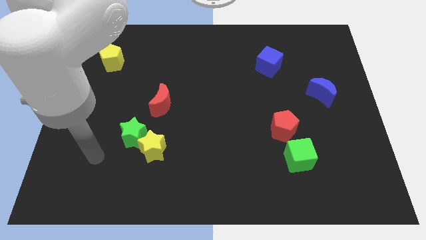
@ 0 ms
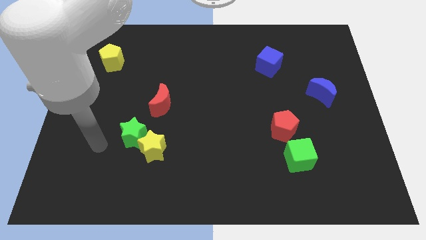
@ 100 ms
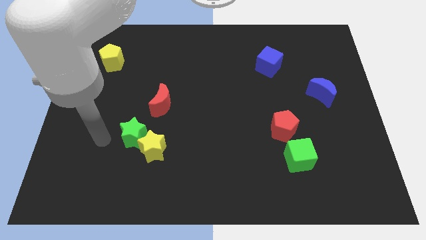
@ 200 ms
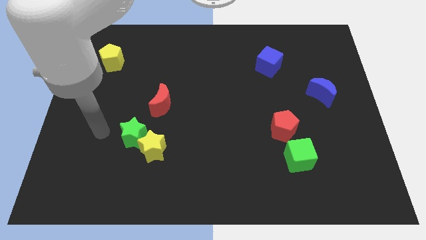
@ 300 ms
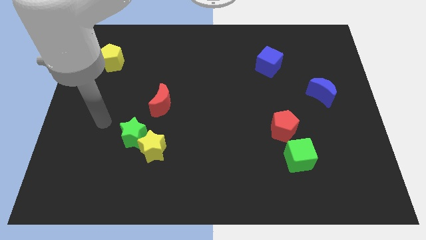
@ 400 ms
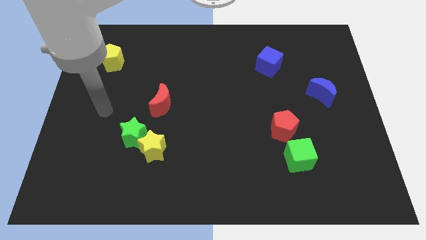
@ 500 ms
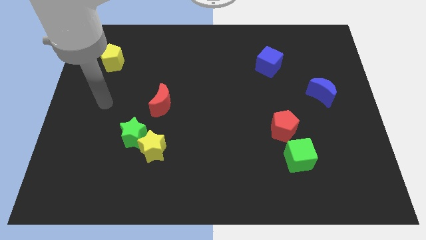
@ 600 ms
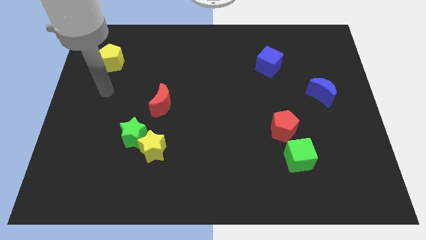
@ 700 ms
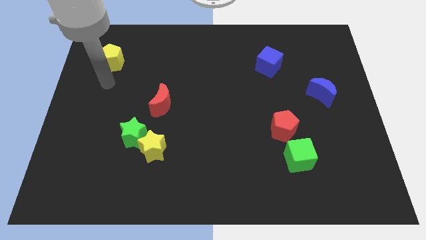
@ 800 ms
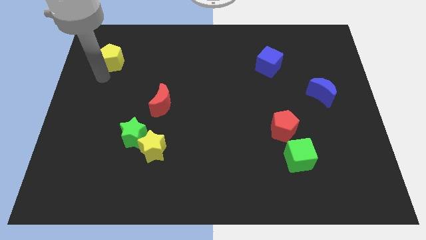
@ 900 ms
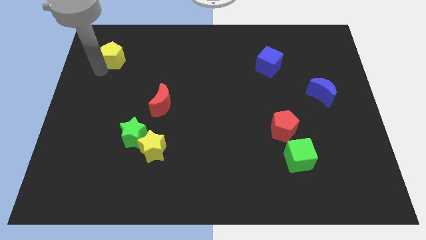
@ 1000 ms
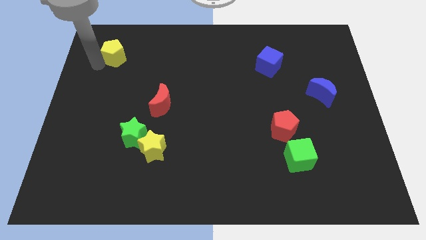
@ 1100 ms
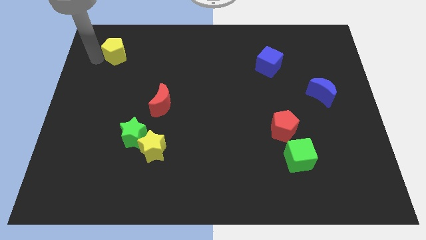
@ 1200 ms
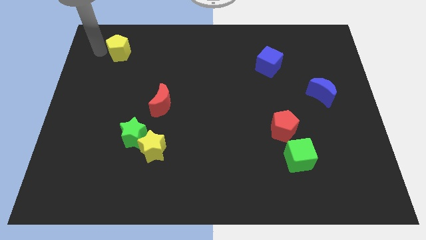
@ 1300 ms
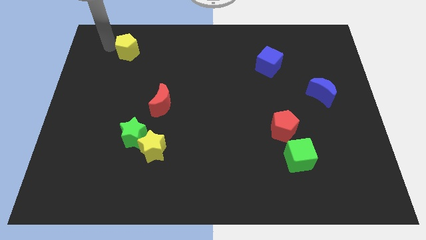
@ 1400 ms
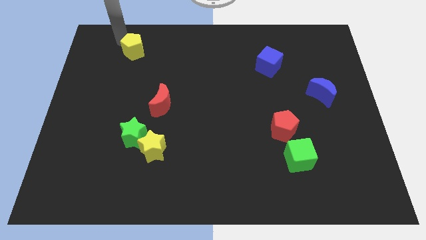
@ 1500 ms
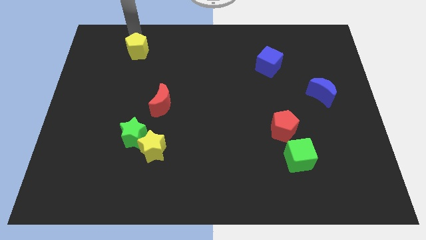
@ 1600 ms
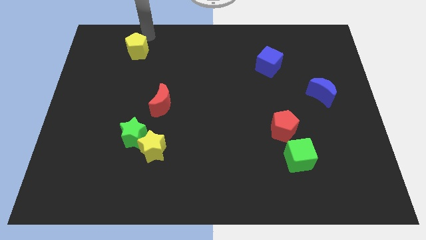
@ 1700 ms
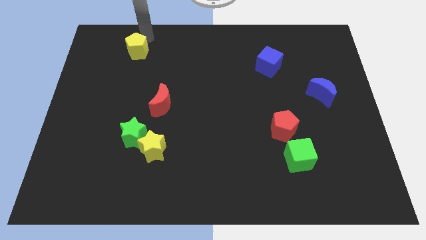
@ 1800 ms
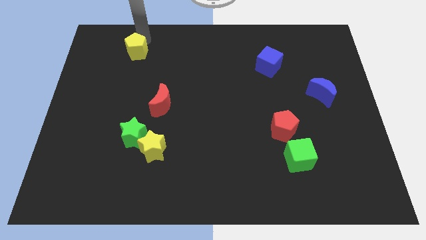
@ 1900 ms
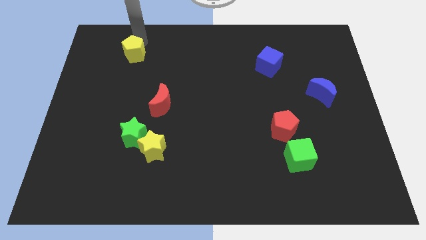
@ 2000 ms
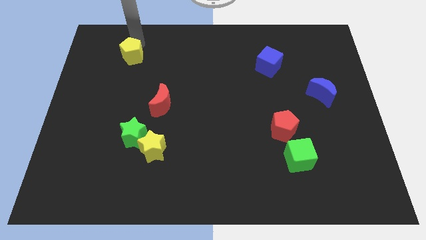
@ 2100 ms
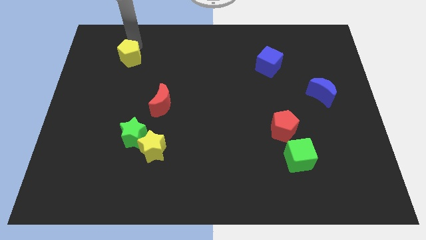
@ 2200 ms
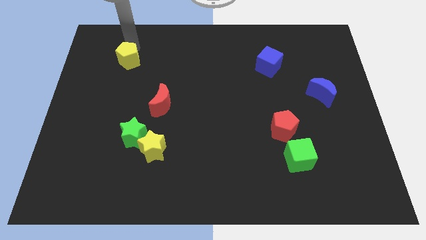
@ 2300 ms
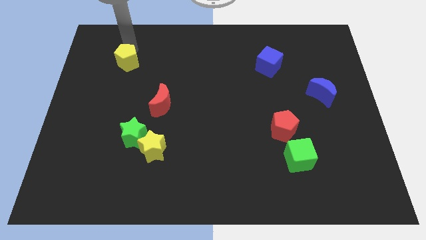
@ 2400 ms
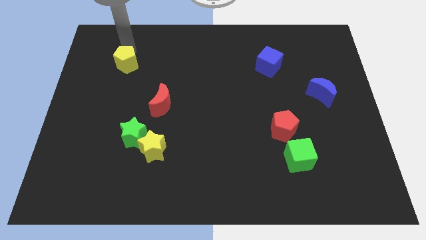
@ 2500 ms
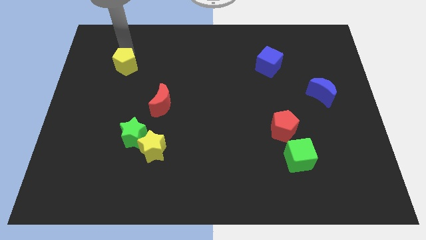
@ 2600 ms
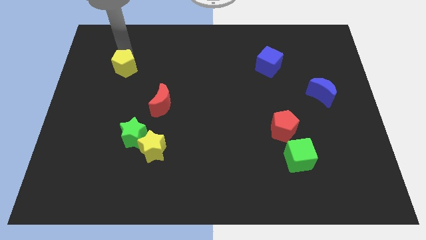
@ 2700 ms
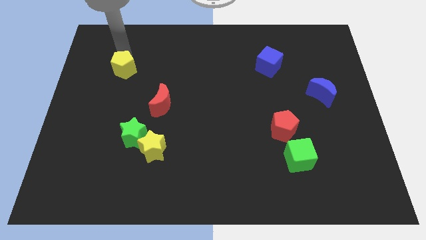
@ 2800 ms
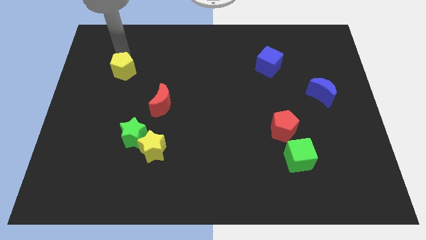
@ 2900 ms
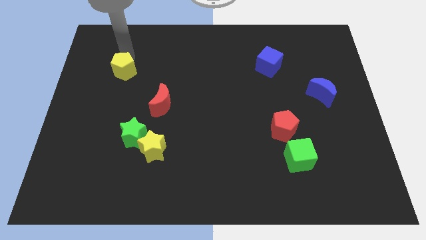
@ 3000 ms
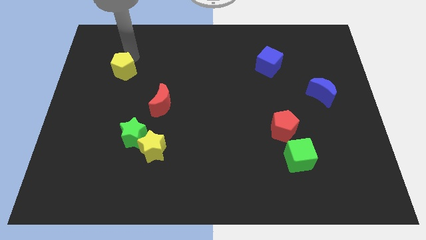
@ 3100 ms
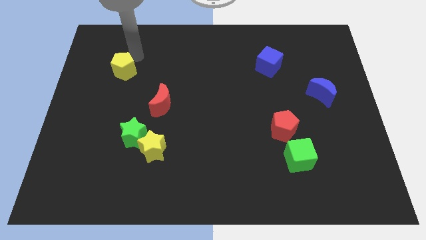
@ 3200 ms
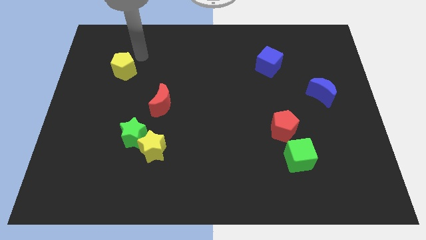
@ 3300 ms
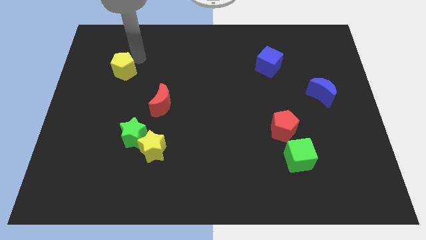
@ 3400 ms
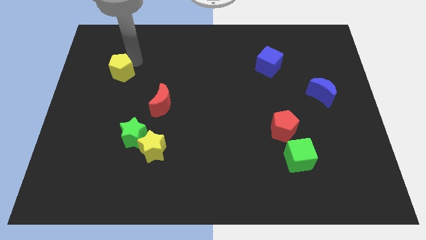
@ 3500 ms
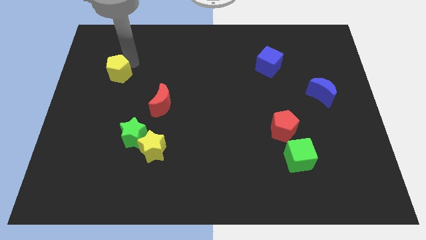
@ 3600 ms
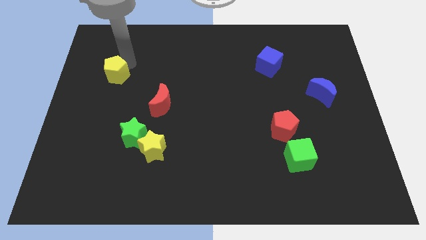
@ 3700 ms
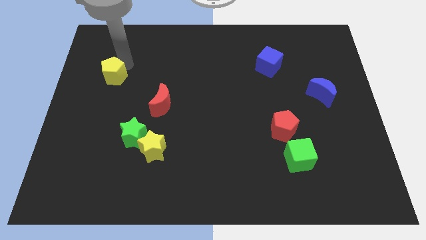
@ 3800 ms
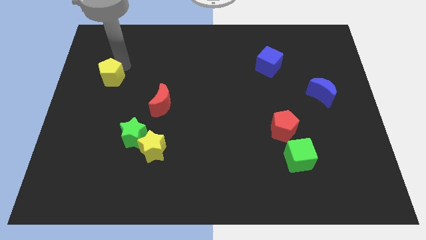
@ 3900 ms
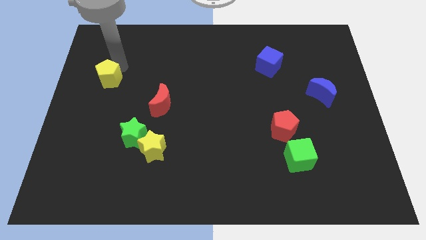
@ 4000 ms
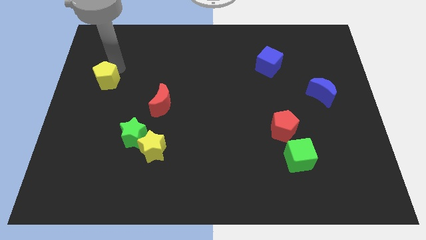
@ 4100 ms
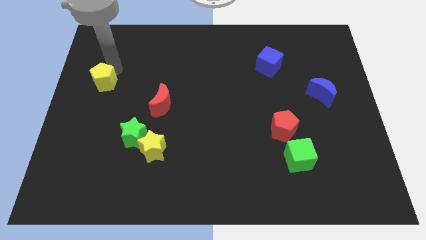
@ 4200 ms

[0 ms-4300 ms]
slide the yellow pentagon down a little
